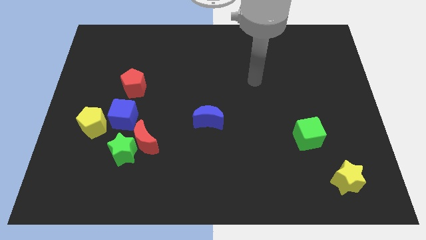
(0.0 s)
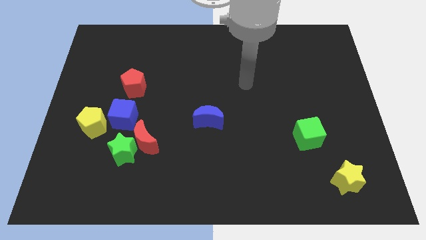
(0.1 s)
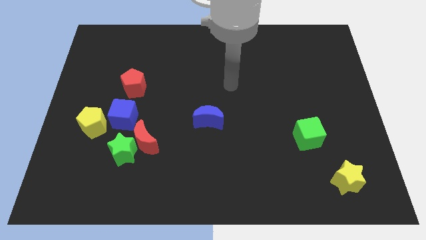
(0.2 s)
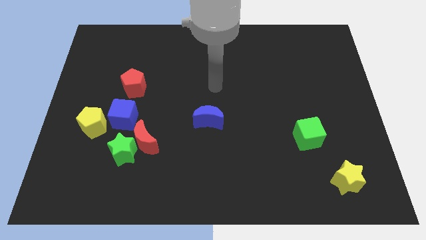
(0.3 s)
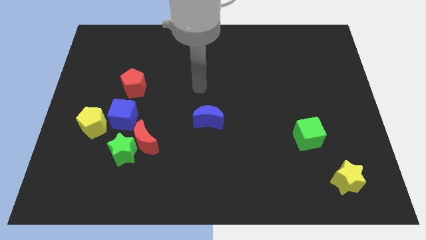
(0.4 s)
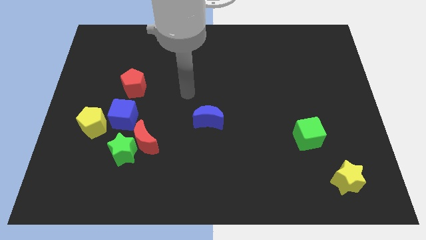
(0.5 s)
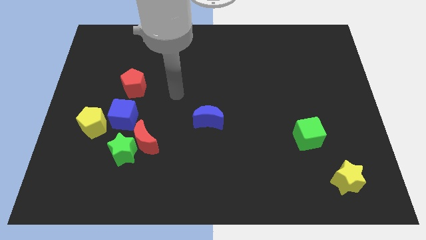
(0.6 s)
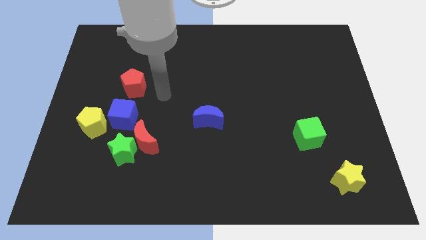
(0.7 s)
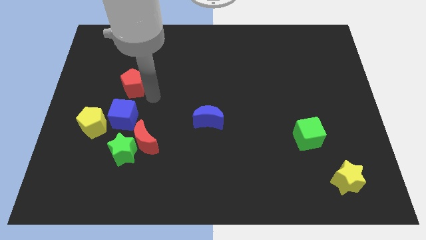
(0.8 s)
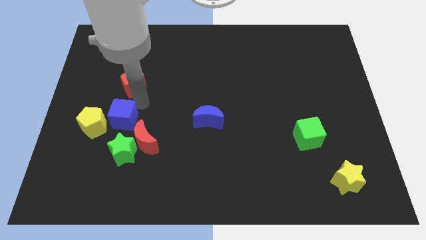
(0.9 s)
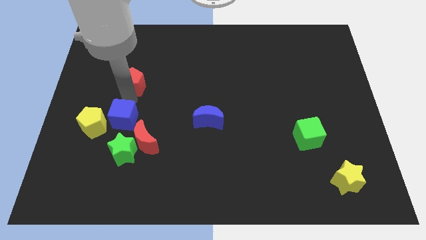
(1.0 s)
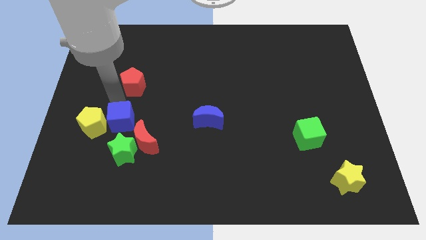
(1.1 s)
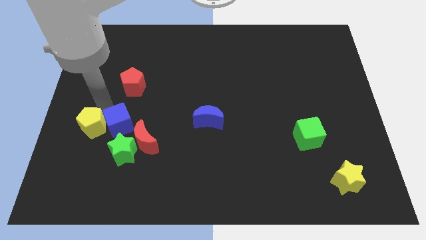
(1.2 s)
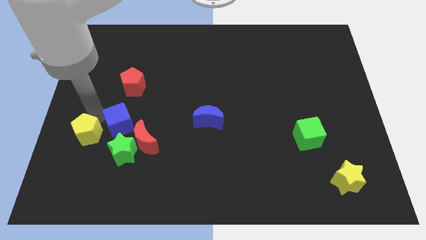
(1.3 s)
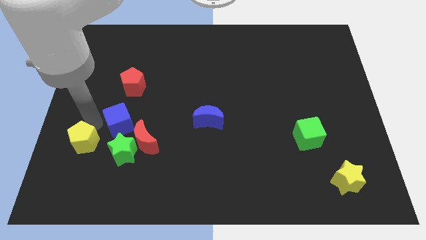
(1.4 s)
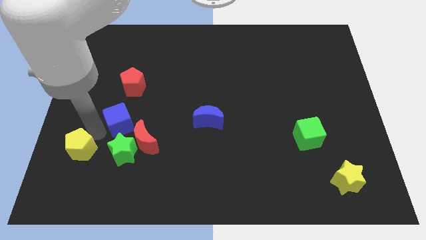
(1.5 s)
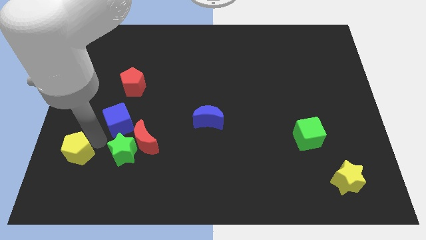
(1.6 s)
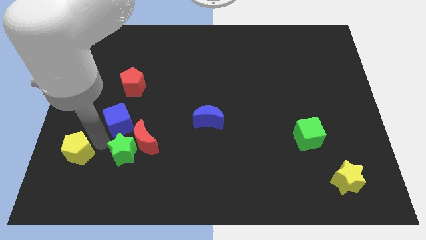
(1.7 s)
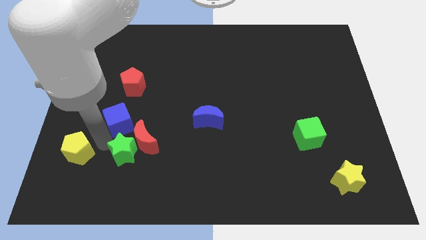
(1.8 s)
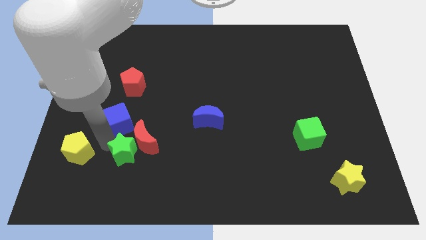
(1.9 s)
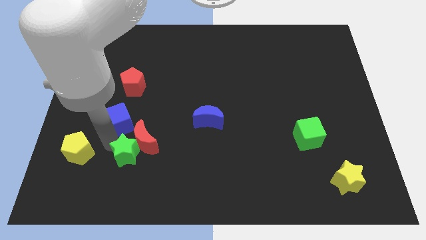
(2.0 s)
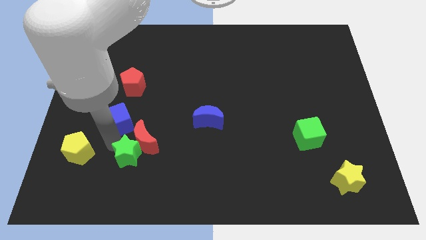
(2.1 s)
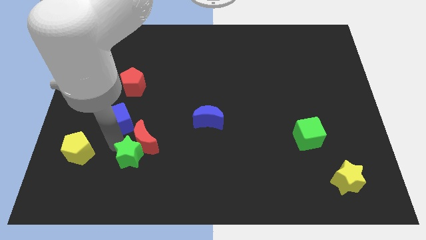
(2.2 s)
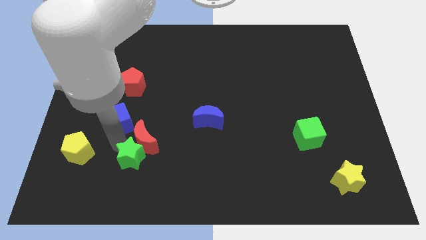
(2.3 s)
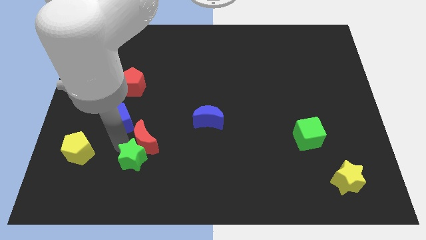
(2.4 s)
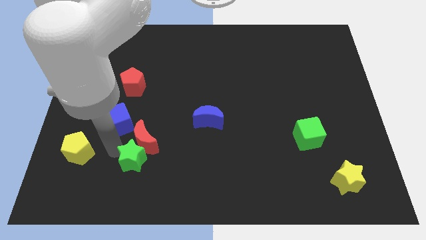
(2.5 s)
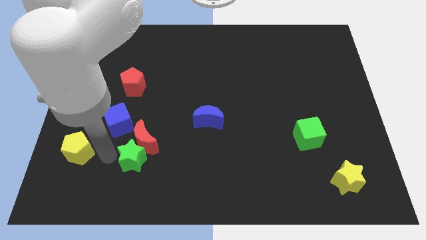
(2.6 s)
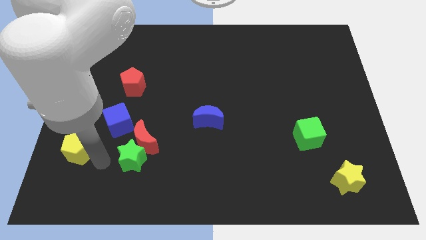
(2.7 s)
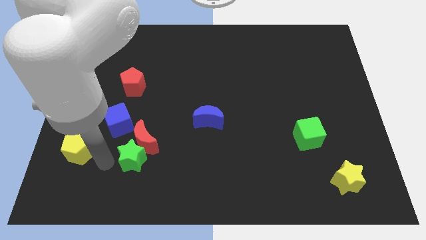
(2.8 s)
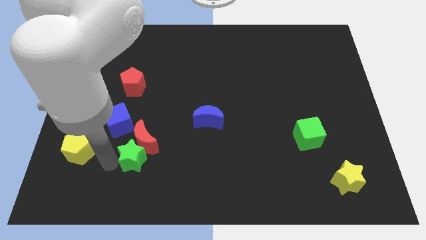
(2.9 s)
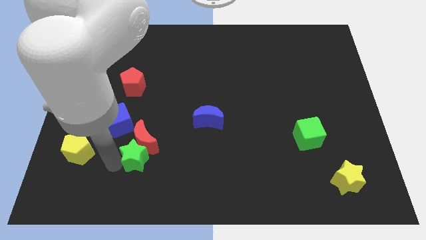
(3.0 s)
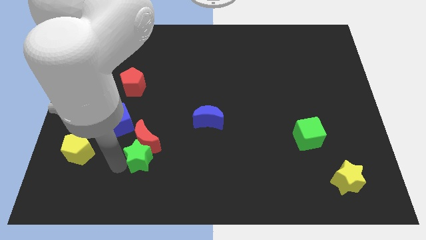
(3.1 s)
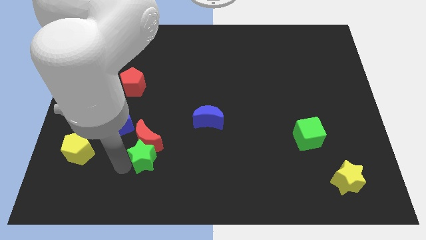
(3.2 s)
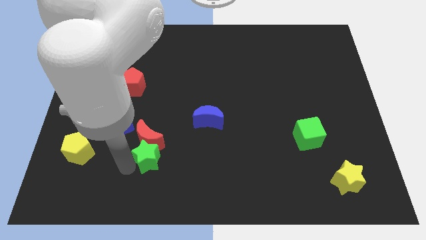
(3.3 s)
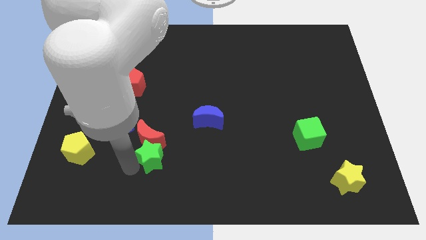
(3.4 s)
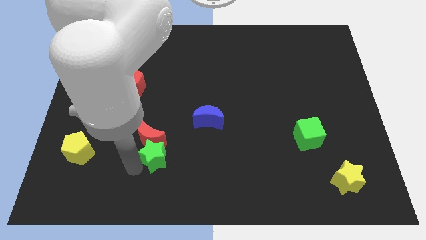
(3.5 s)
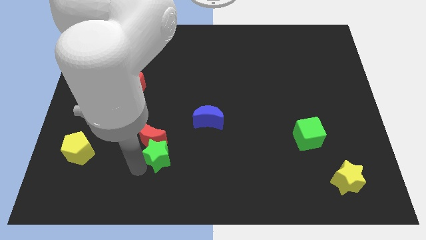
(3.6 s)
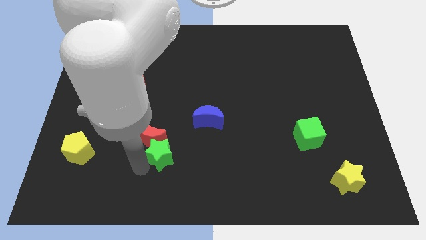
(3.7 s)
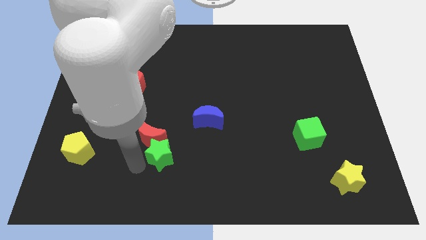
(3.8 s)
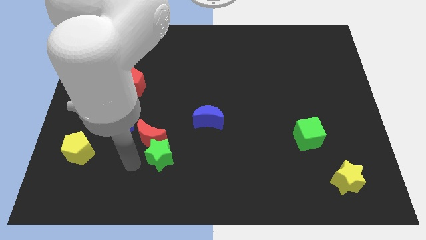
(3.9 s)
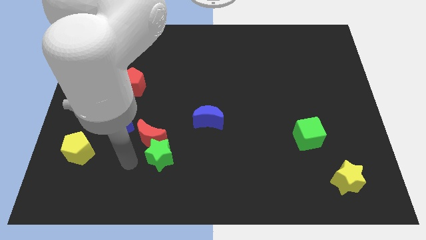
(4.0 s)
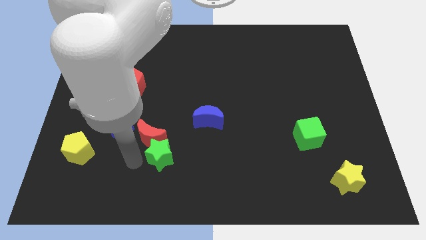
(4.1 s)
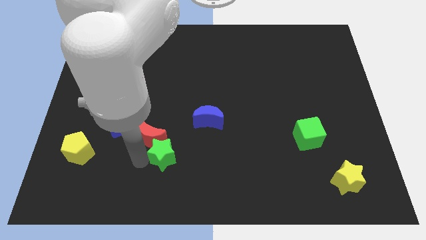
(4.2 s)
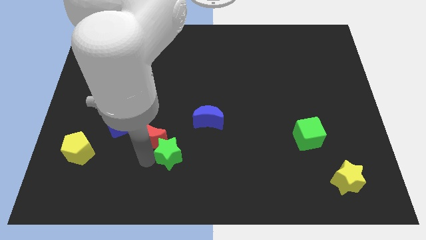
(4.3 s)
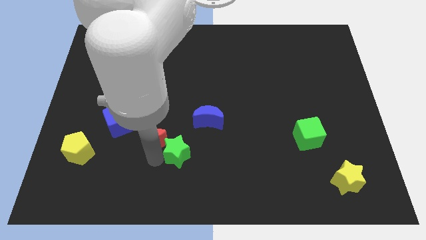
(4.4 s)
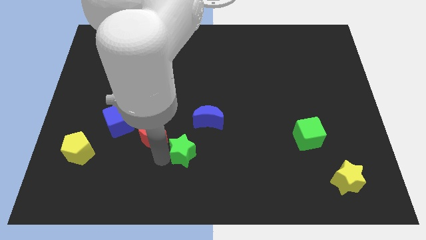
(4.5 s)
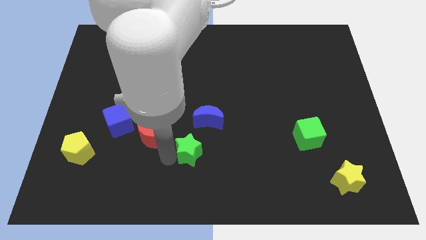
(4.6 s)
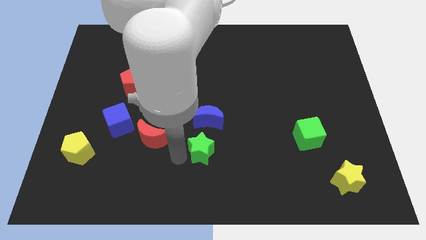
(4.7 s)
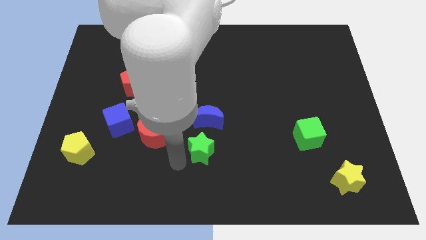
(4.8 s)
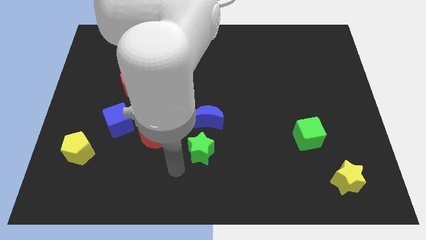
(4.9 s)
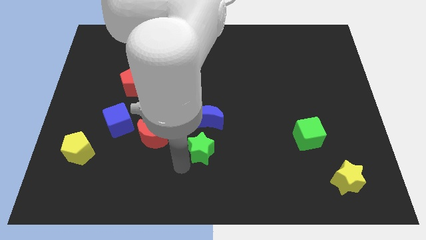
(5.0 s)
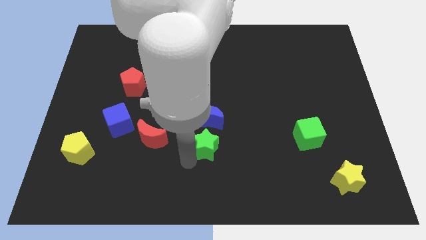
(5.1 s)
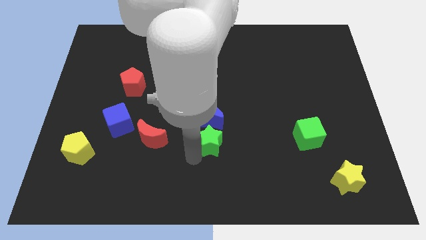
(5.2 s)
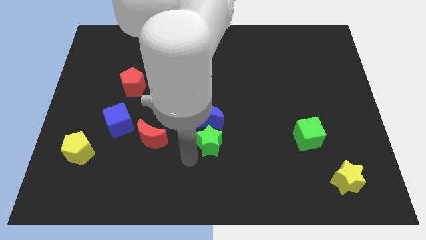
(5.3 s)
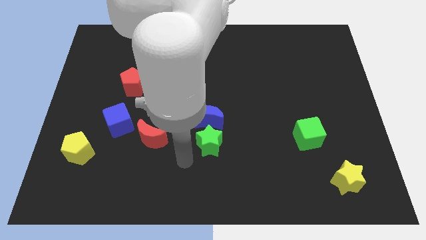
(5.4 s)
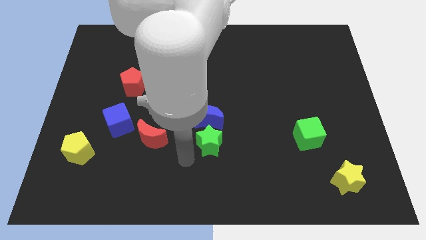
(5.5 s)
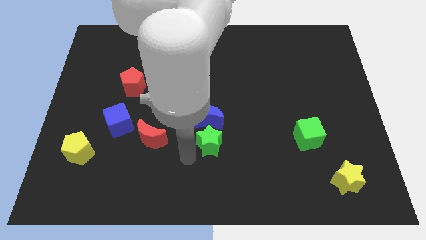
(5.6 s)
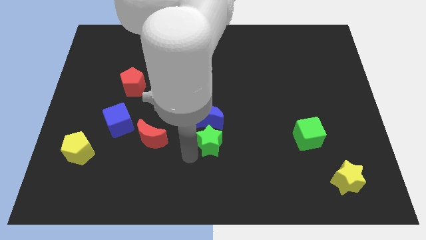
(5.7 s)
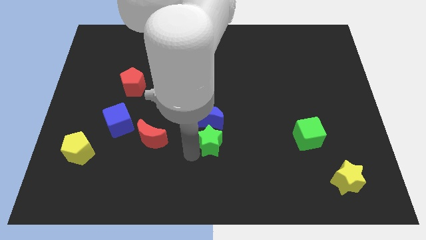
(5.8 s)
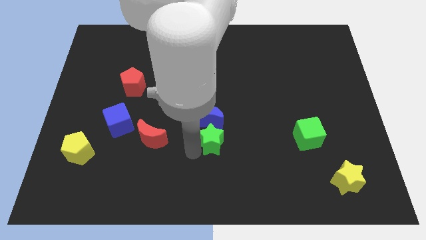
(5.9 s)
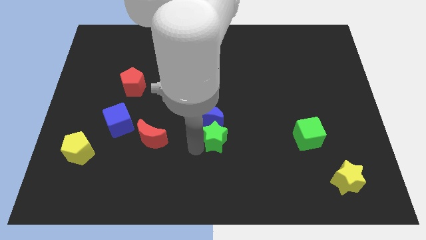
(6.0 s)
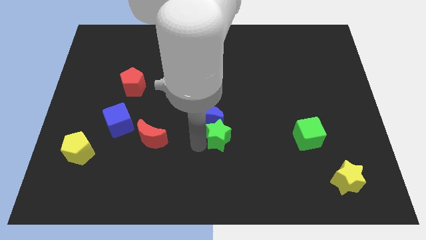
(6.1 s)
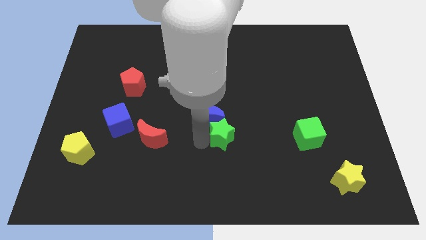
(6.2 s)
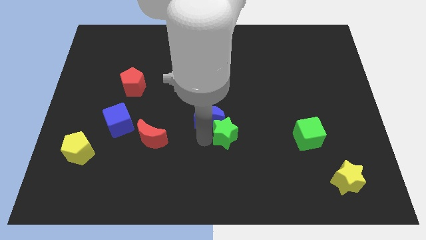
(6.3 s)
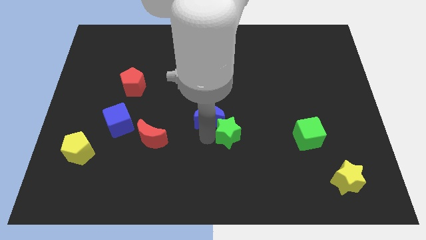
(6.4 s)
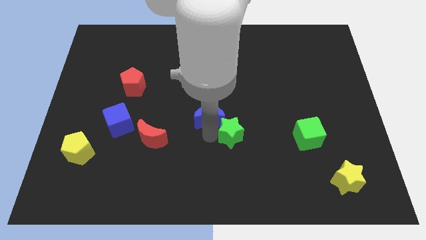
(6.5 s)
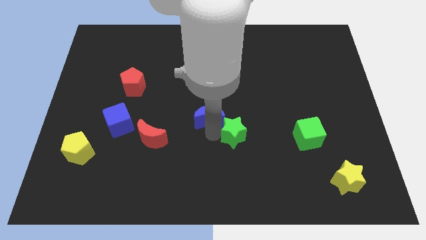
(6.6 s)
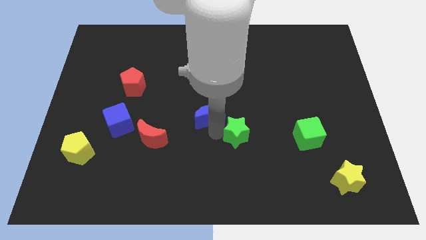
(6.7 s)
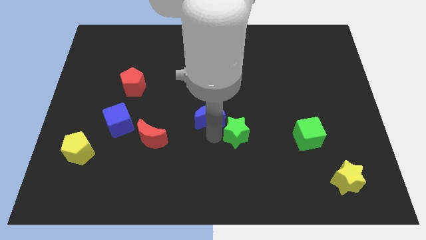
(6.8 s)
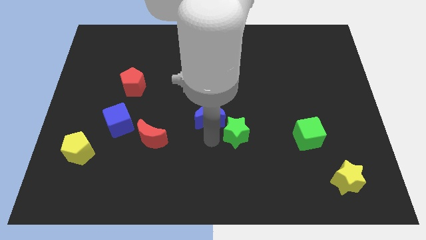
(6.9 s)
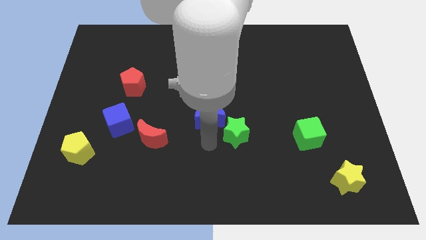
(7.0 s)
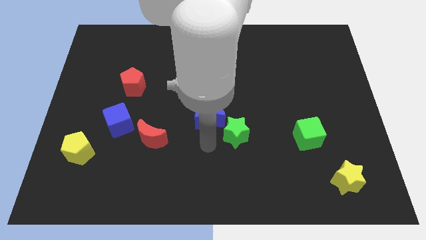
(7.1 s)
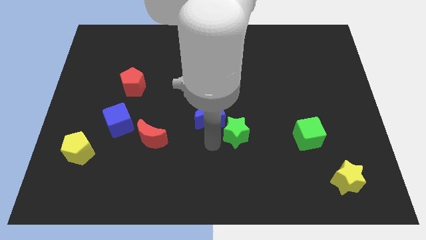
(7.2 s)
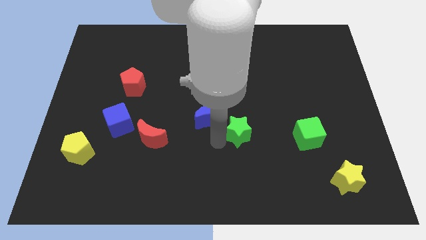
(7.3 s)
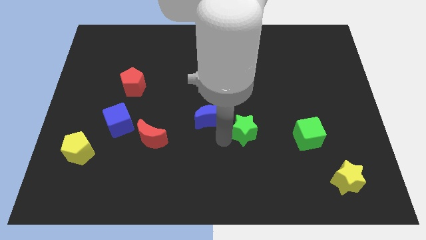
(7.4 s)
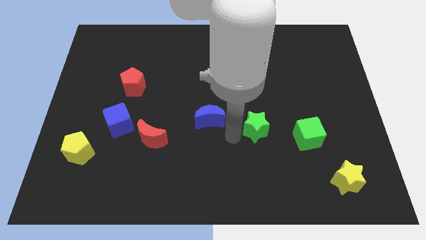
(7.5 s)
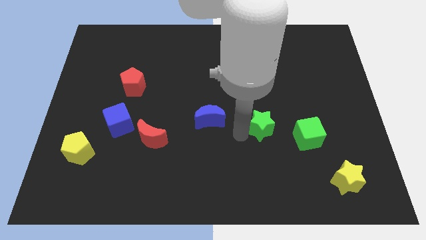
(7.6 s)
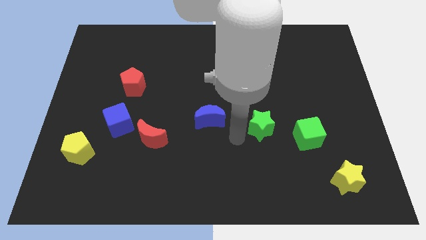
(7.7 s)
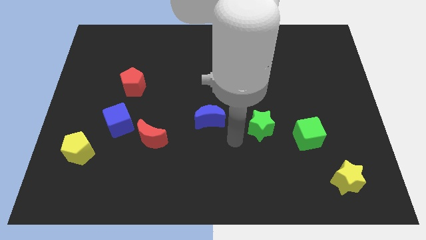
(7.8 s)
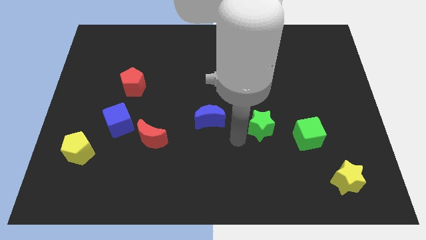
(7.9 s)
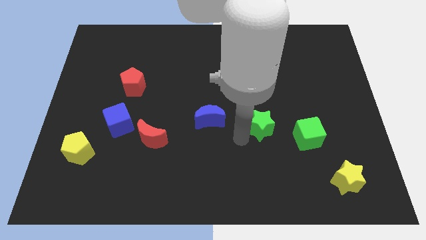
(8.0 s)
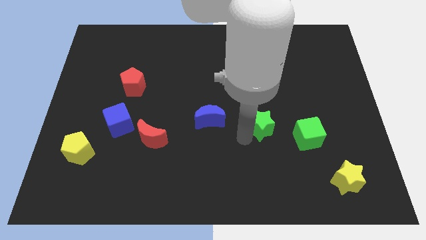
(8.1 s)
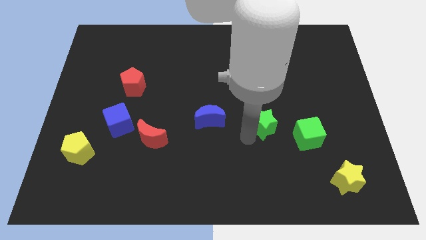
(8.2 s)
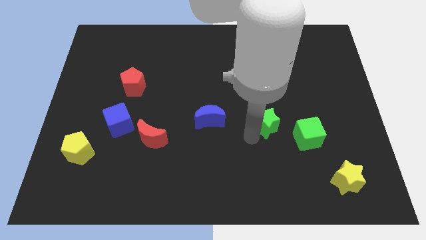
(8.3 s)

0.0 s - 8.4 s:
move the green star to the top left of the green cube
